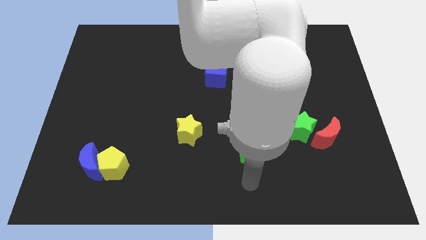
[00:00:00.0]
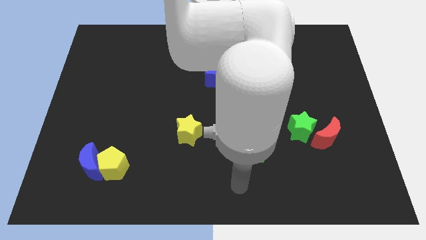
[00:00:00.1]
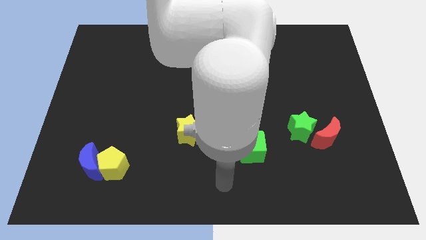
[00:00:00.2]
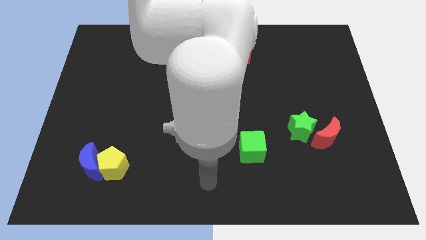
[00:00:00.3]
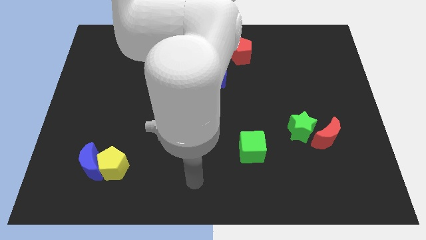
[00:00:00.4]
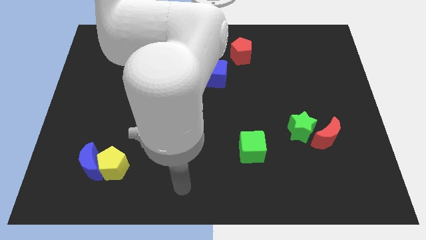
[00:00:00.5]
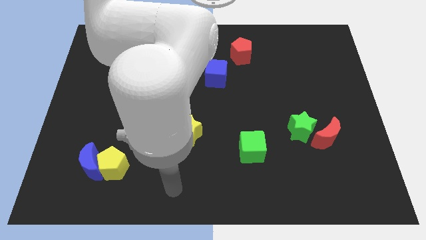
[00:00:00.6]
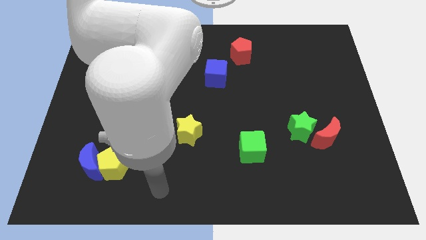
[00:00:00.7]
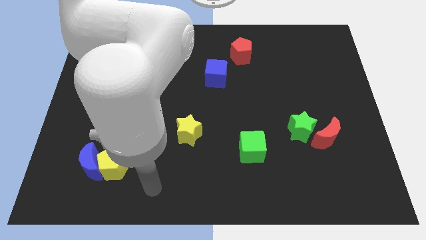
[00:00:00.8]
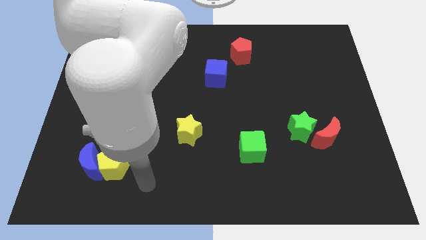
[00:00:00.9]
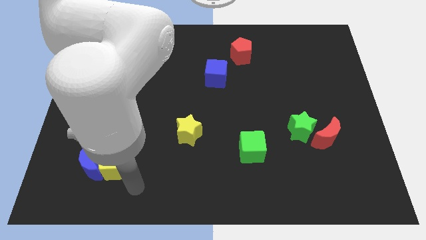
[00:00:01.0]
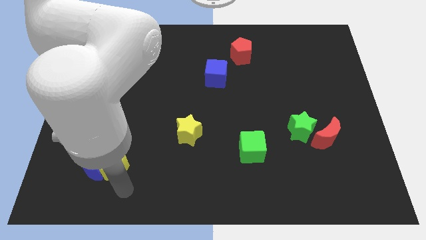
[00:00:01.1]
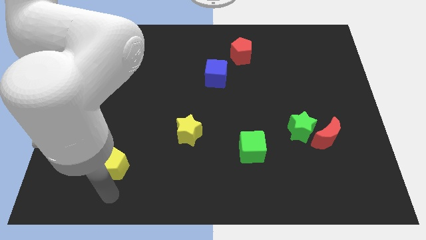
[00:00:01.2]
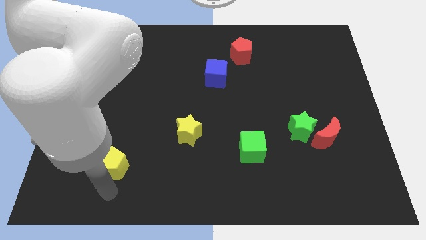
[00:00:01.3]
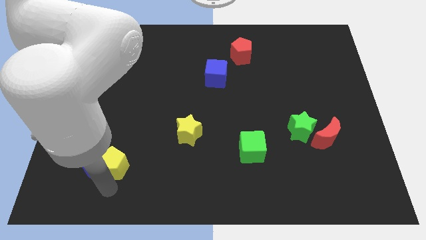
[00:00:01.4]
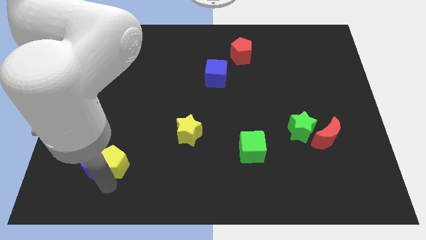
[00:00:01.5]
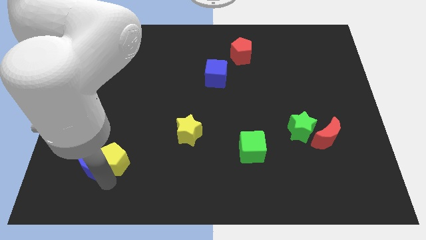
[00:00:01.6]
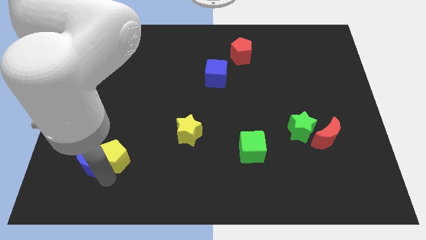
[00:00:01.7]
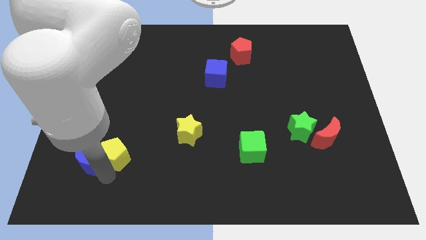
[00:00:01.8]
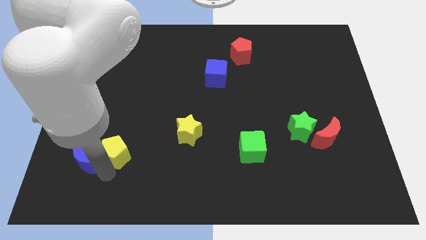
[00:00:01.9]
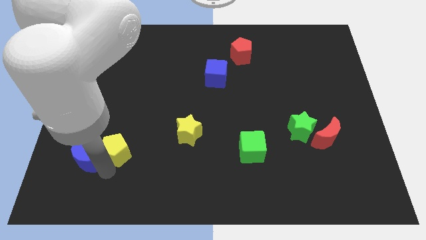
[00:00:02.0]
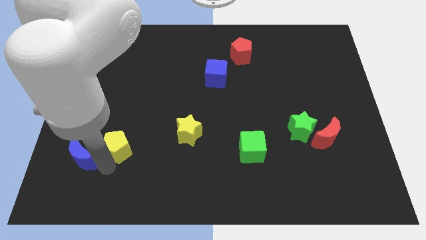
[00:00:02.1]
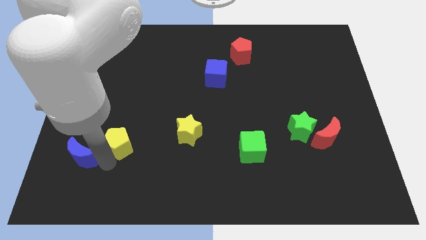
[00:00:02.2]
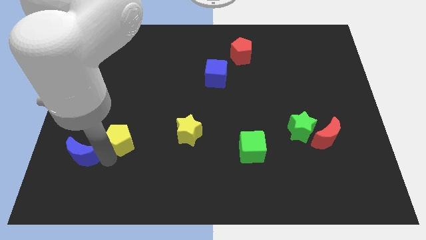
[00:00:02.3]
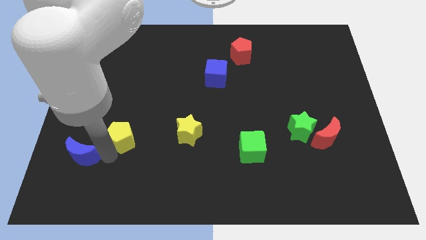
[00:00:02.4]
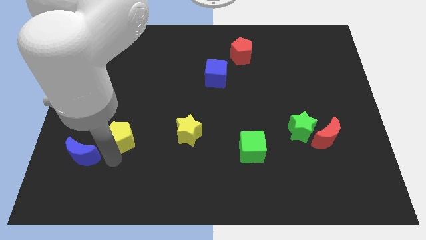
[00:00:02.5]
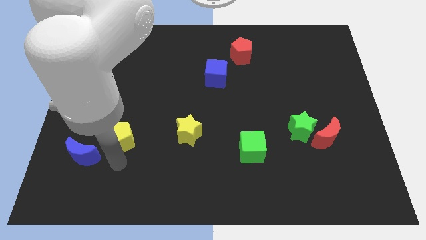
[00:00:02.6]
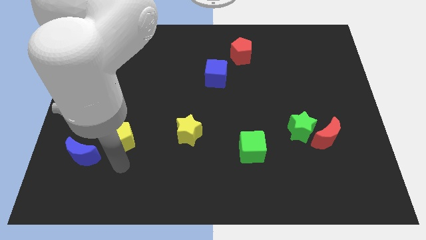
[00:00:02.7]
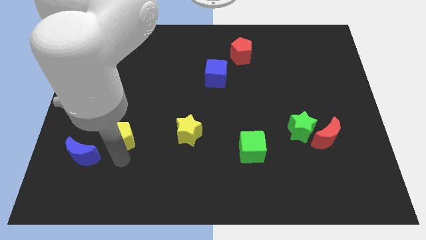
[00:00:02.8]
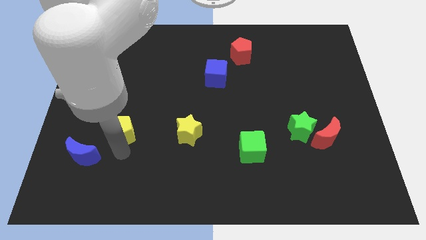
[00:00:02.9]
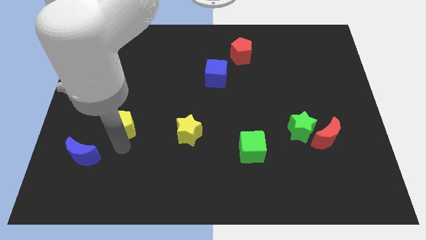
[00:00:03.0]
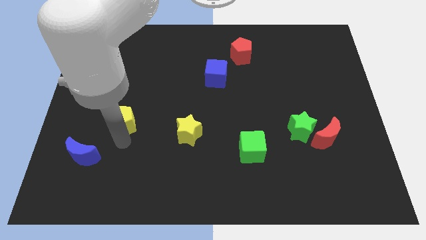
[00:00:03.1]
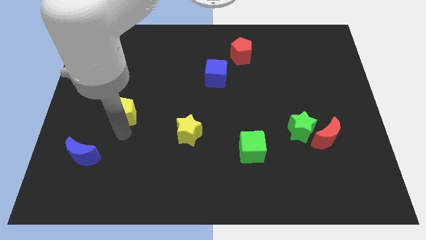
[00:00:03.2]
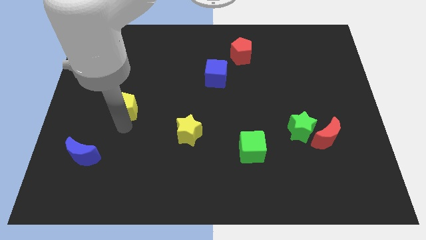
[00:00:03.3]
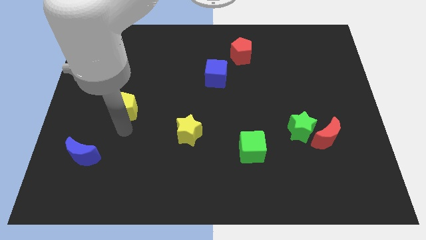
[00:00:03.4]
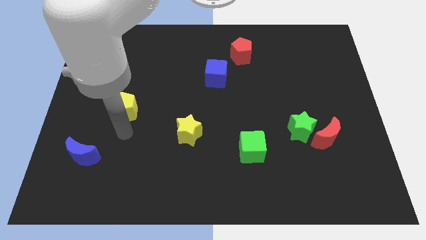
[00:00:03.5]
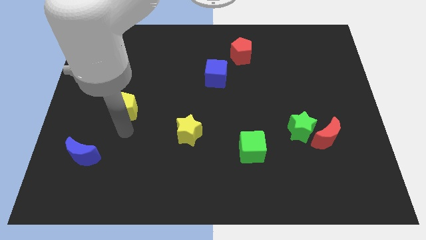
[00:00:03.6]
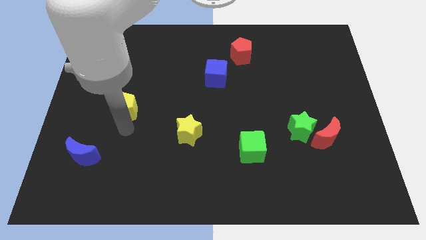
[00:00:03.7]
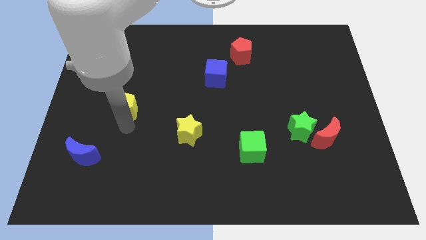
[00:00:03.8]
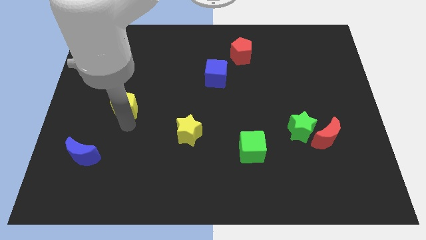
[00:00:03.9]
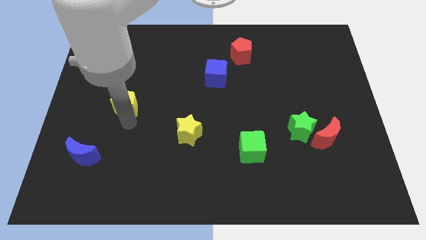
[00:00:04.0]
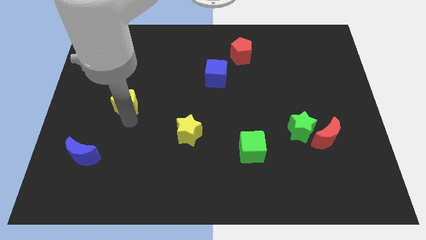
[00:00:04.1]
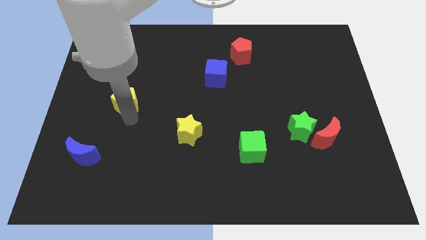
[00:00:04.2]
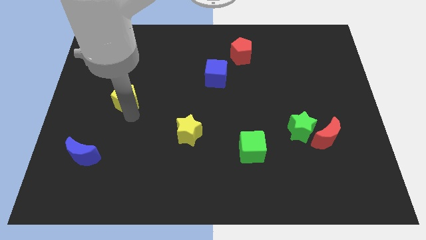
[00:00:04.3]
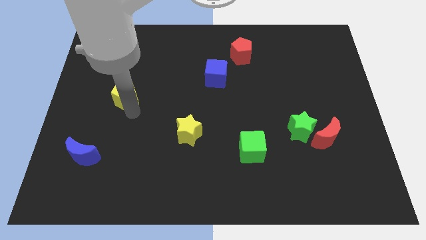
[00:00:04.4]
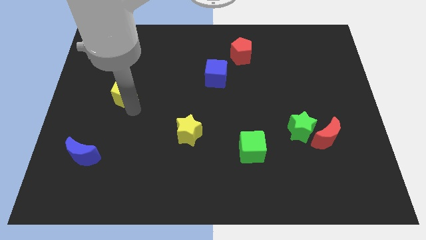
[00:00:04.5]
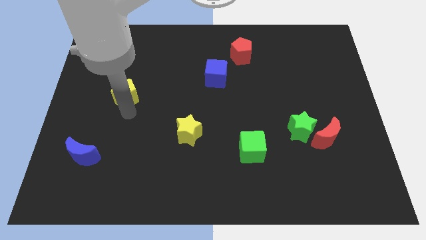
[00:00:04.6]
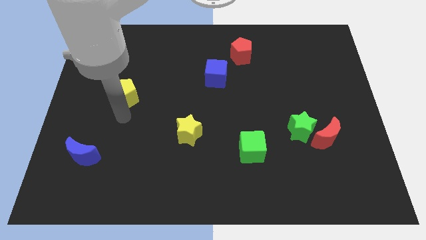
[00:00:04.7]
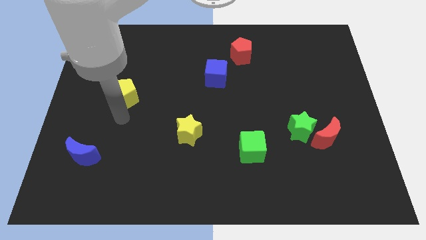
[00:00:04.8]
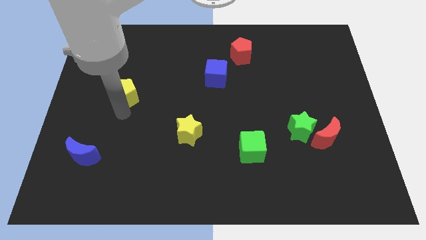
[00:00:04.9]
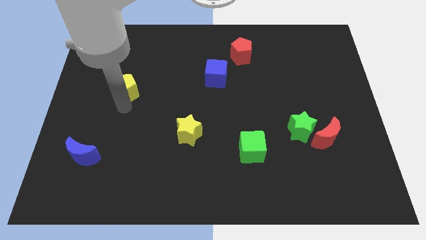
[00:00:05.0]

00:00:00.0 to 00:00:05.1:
push the yellow pentagon upwards

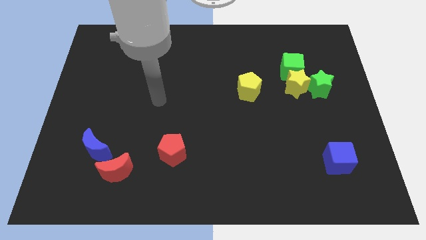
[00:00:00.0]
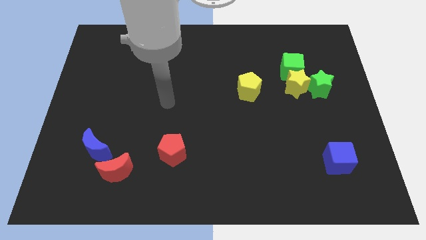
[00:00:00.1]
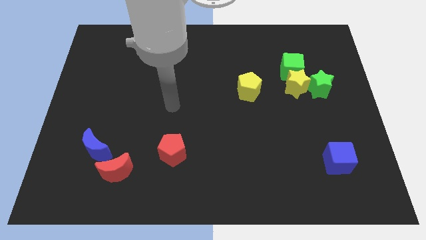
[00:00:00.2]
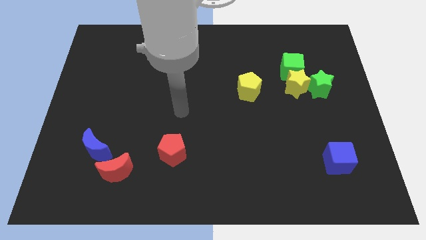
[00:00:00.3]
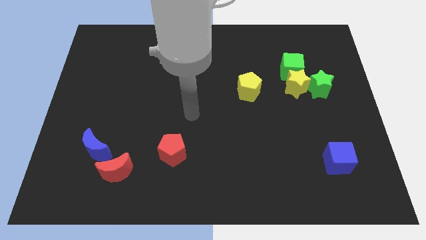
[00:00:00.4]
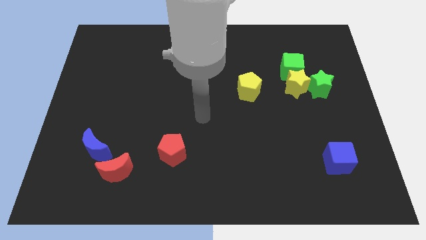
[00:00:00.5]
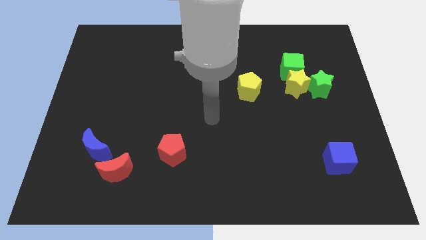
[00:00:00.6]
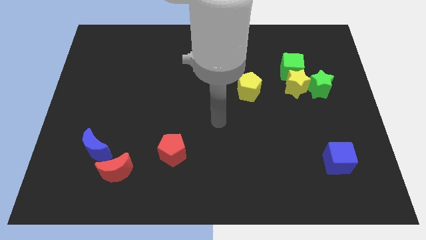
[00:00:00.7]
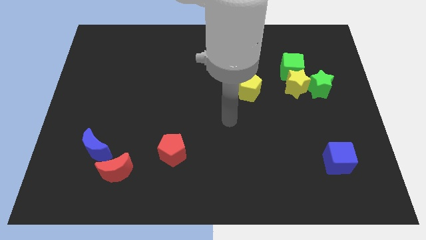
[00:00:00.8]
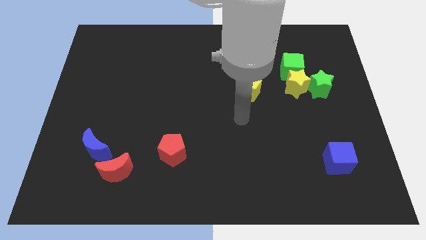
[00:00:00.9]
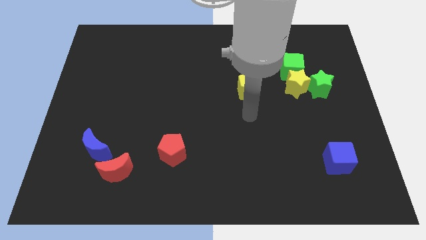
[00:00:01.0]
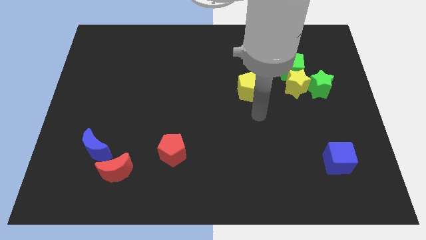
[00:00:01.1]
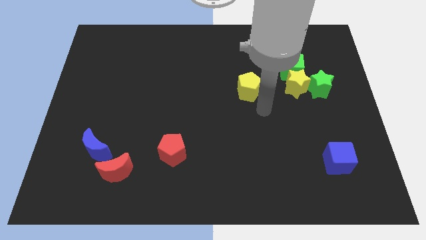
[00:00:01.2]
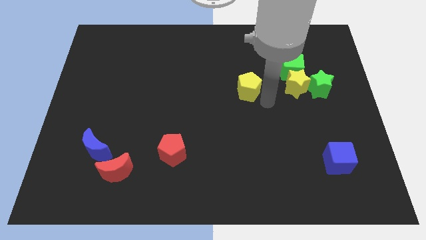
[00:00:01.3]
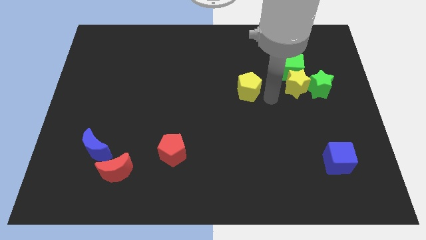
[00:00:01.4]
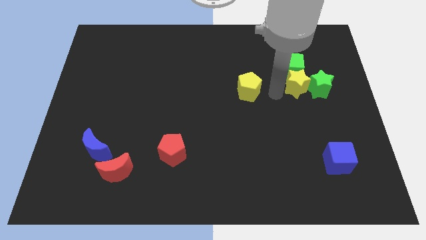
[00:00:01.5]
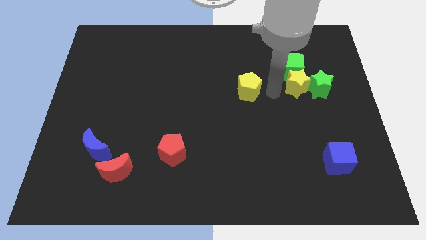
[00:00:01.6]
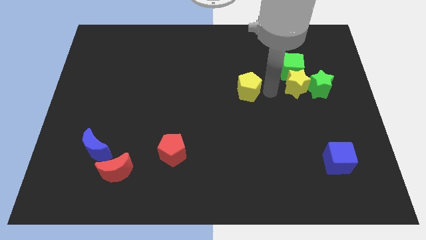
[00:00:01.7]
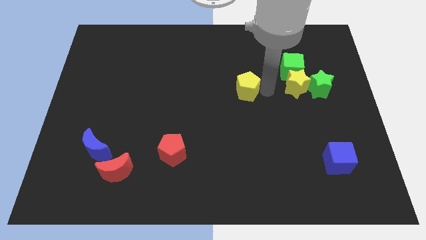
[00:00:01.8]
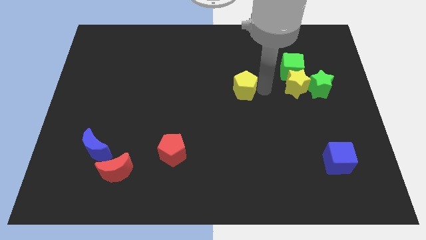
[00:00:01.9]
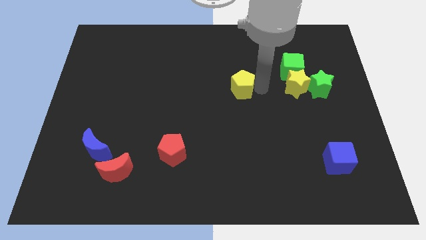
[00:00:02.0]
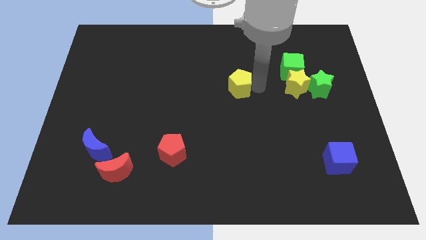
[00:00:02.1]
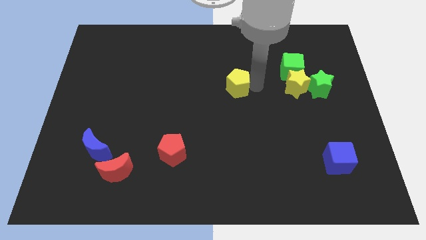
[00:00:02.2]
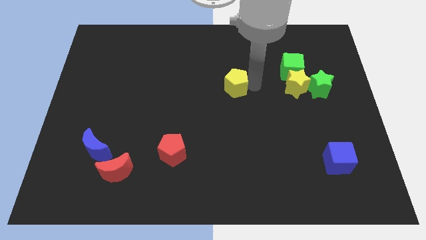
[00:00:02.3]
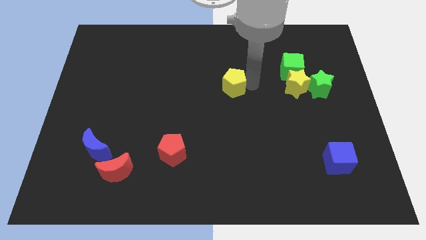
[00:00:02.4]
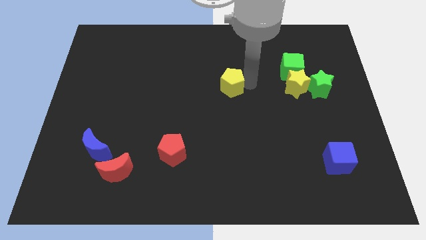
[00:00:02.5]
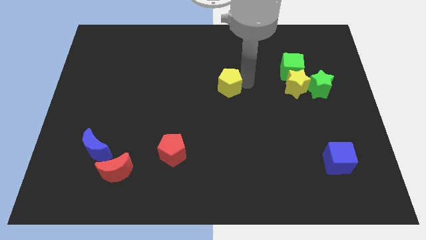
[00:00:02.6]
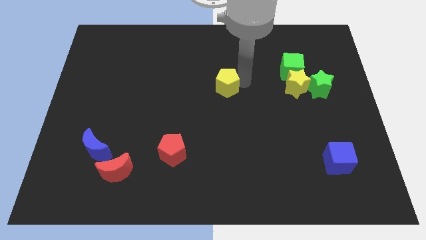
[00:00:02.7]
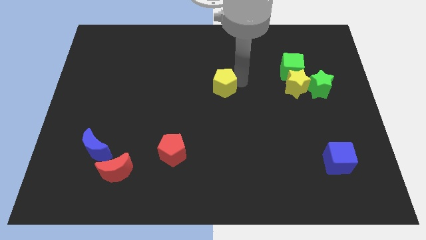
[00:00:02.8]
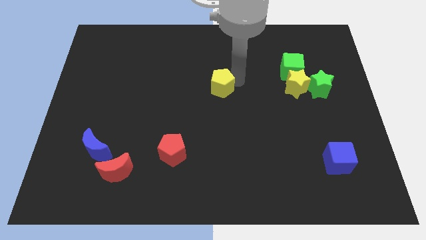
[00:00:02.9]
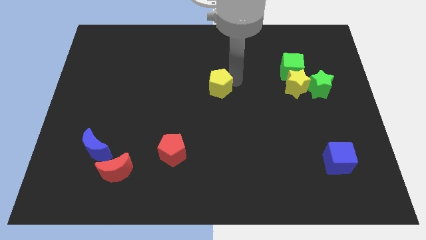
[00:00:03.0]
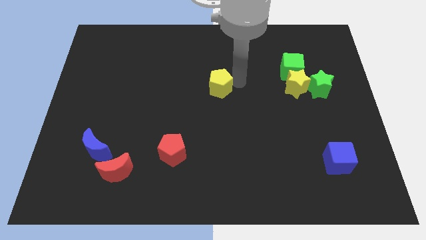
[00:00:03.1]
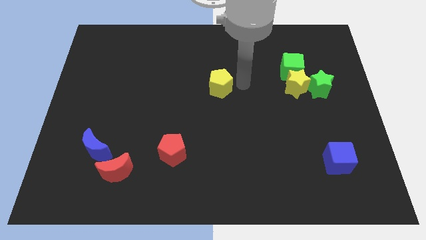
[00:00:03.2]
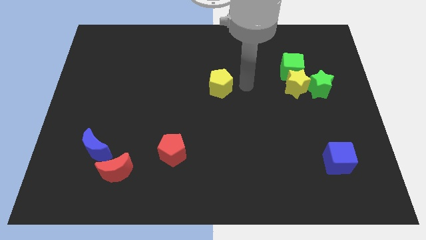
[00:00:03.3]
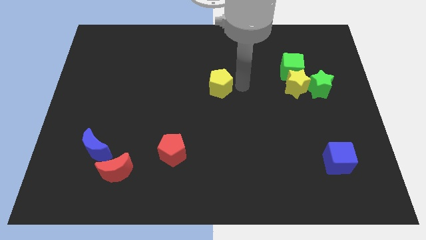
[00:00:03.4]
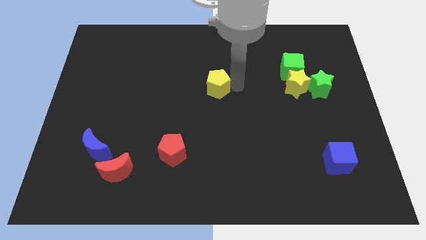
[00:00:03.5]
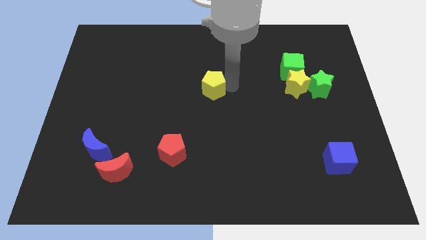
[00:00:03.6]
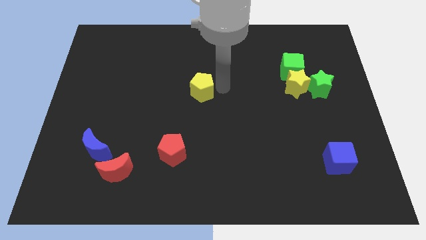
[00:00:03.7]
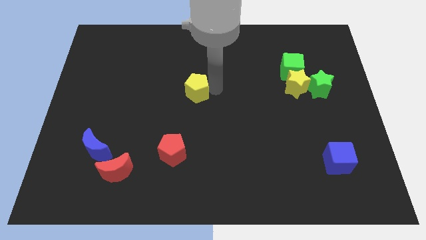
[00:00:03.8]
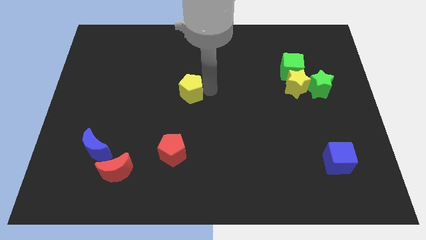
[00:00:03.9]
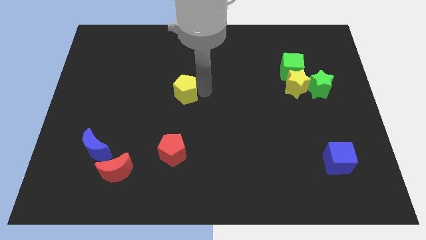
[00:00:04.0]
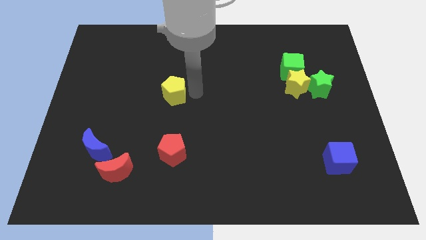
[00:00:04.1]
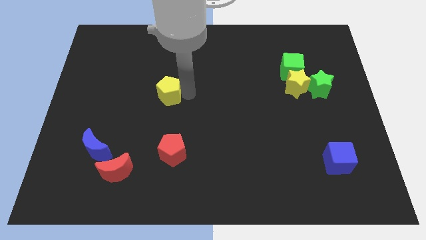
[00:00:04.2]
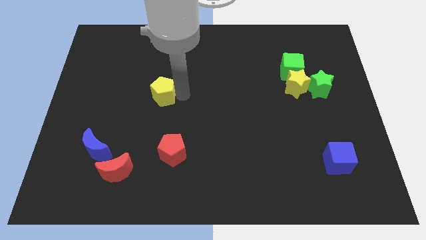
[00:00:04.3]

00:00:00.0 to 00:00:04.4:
push the yellow pentagon left
